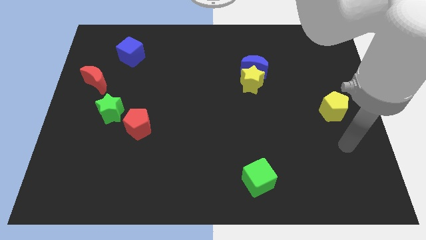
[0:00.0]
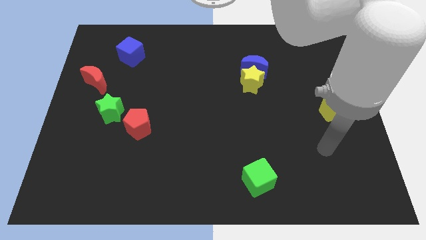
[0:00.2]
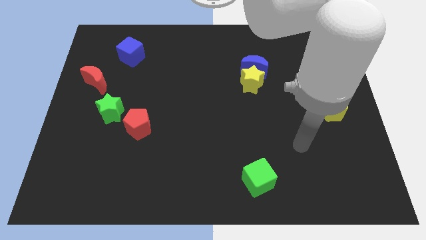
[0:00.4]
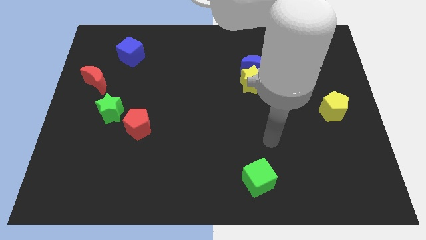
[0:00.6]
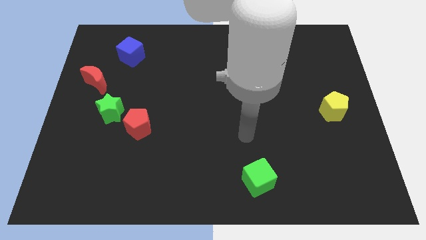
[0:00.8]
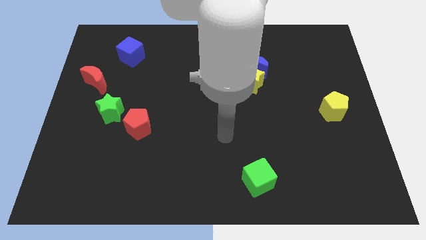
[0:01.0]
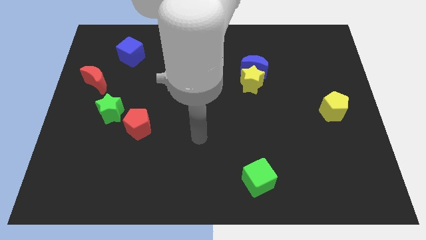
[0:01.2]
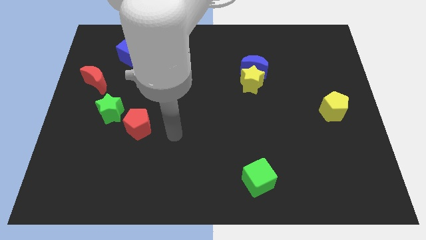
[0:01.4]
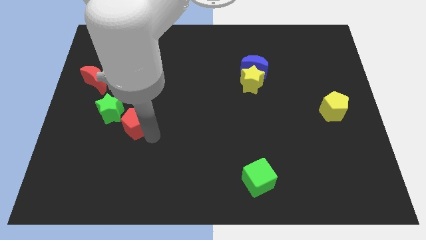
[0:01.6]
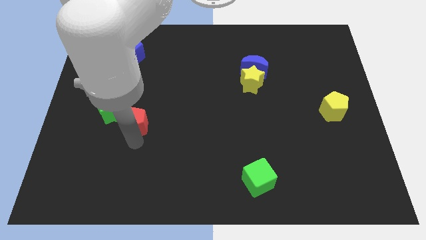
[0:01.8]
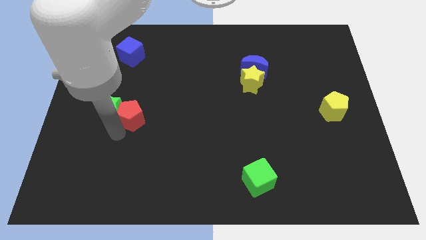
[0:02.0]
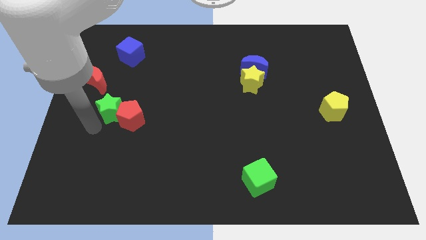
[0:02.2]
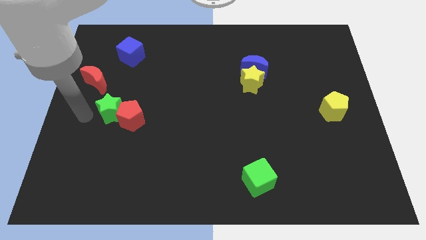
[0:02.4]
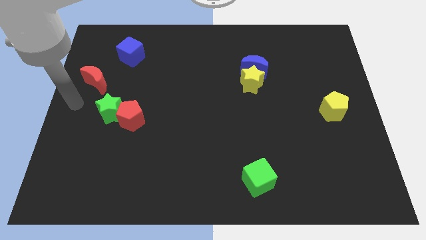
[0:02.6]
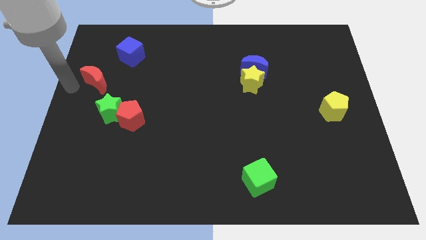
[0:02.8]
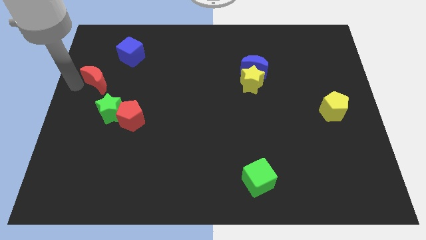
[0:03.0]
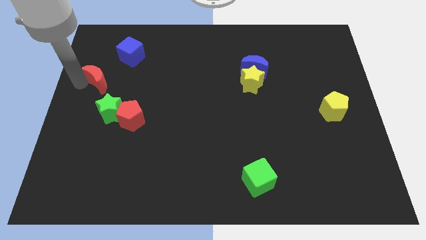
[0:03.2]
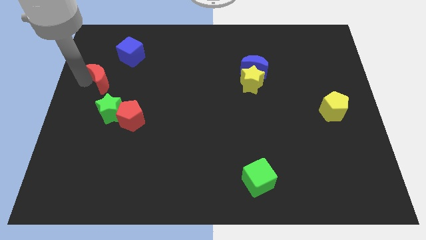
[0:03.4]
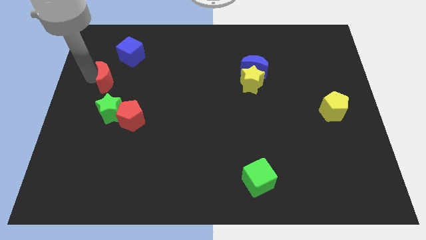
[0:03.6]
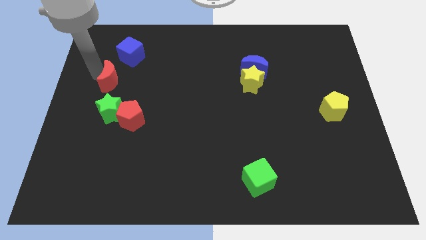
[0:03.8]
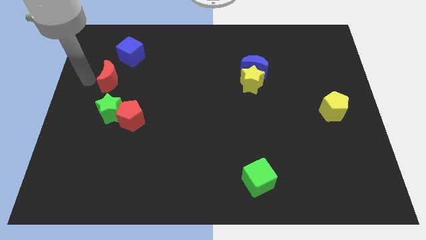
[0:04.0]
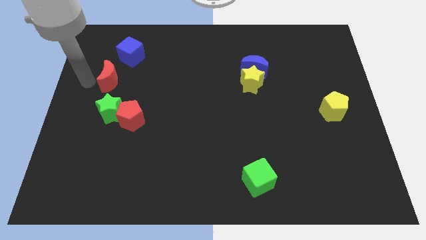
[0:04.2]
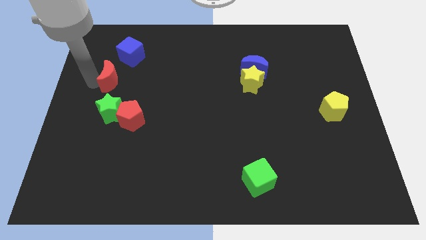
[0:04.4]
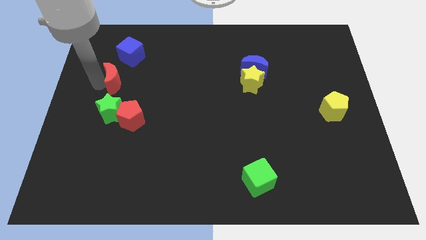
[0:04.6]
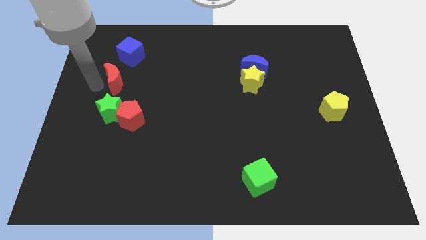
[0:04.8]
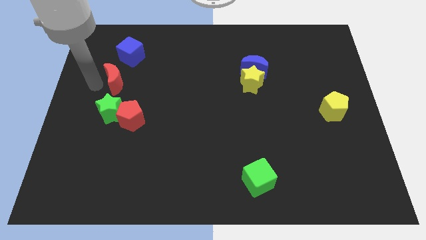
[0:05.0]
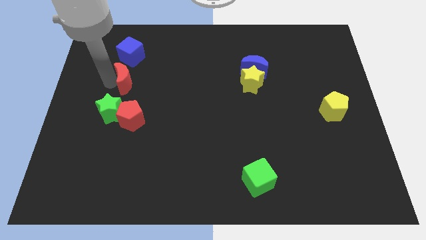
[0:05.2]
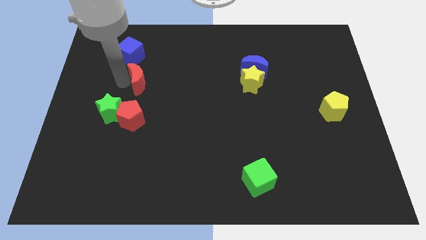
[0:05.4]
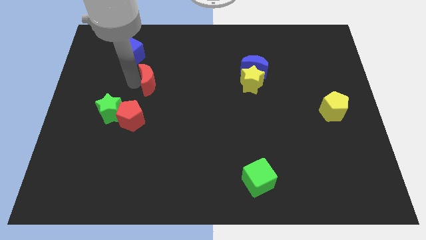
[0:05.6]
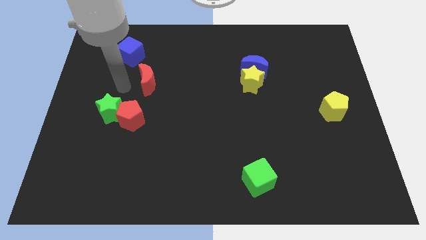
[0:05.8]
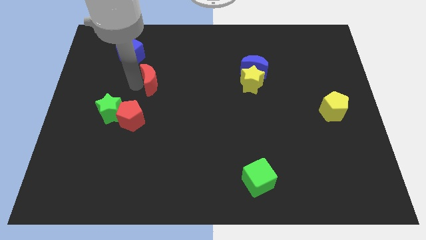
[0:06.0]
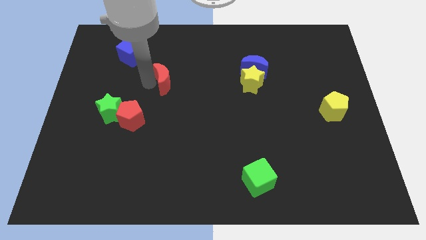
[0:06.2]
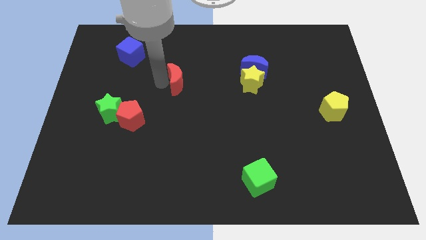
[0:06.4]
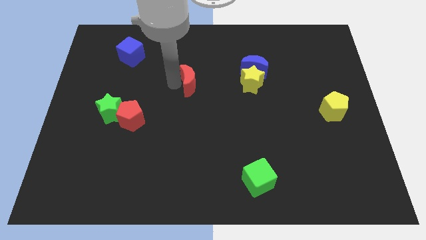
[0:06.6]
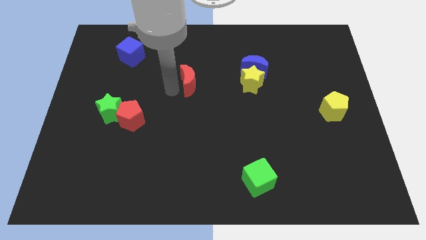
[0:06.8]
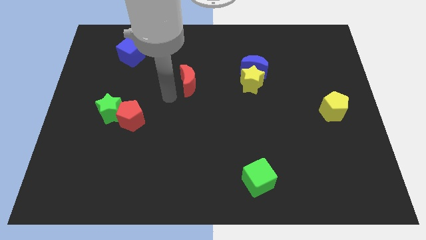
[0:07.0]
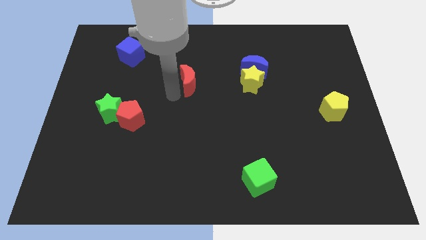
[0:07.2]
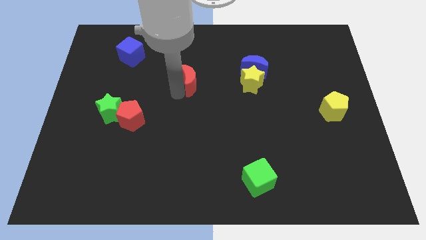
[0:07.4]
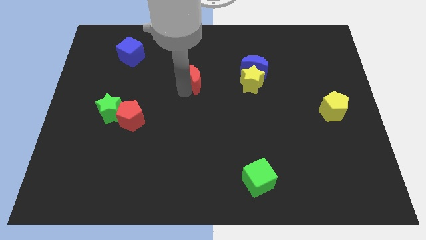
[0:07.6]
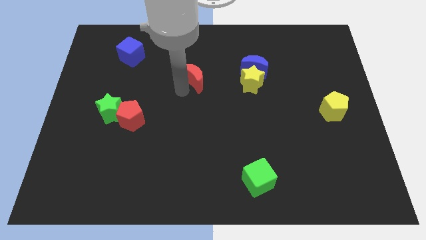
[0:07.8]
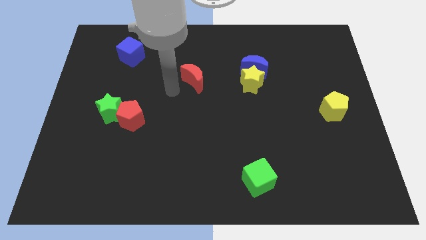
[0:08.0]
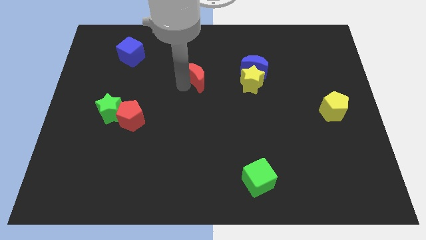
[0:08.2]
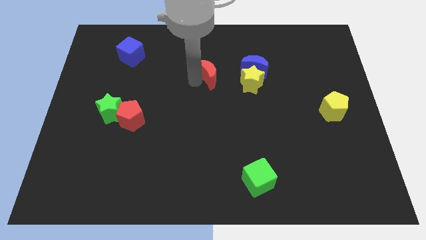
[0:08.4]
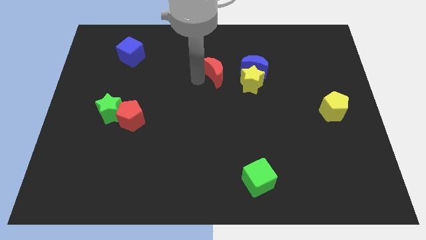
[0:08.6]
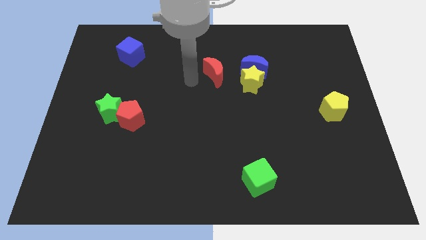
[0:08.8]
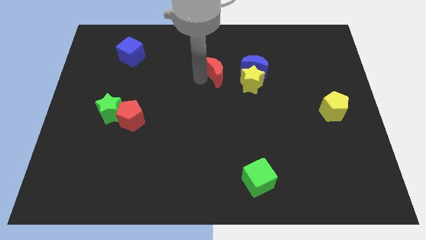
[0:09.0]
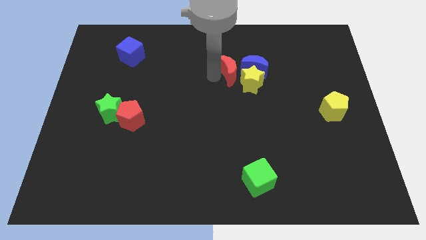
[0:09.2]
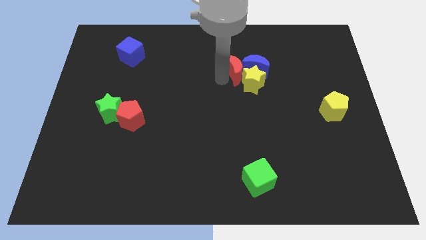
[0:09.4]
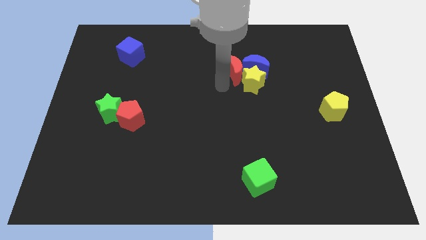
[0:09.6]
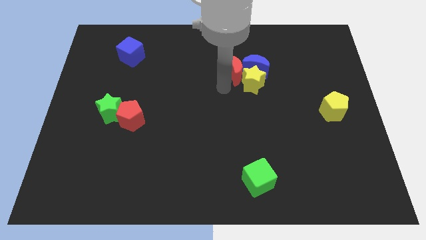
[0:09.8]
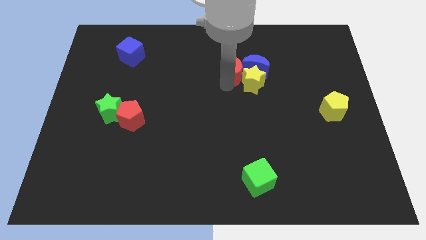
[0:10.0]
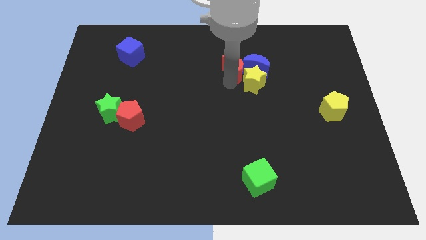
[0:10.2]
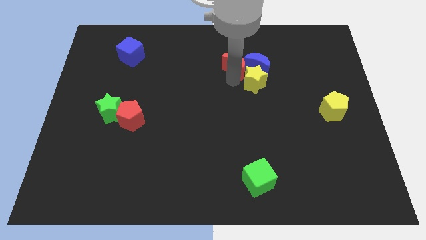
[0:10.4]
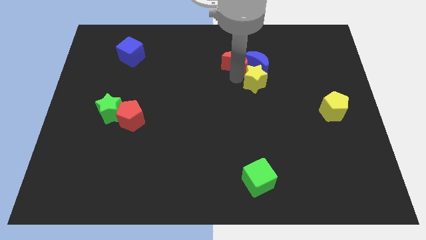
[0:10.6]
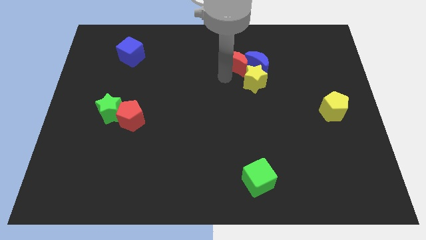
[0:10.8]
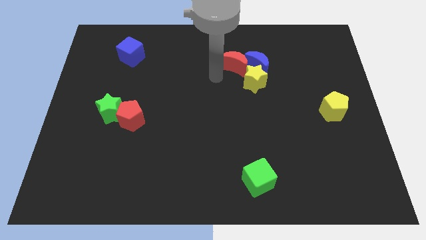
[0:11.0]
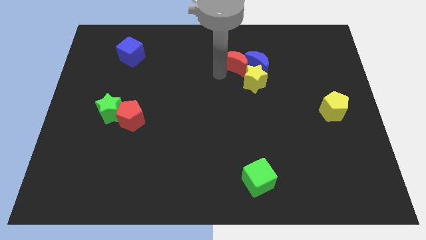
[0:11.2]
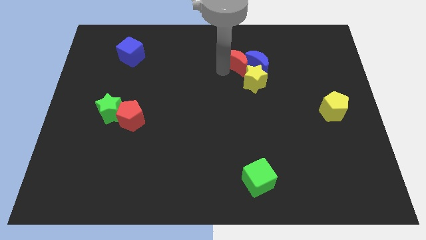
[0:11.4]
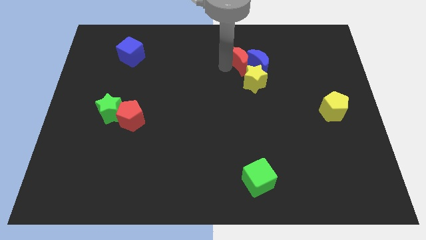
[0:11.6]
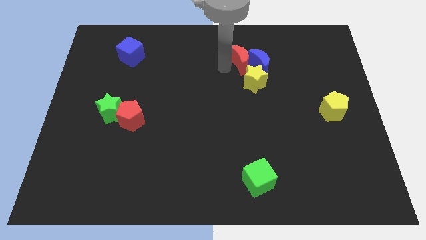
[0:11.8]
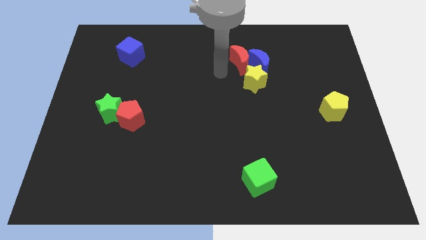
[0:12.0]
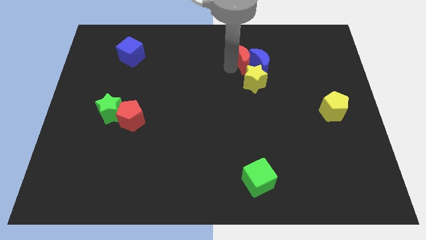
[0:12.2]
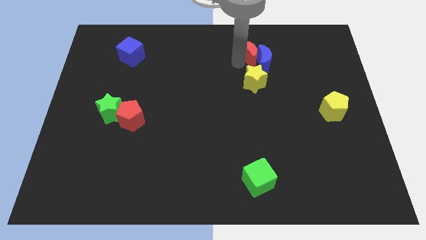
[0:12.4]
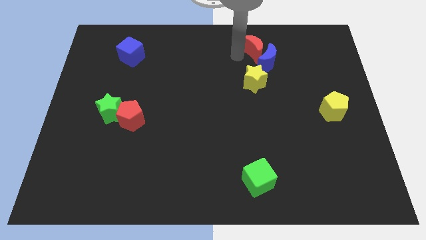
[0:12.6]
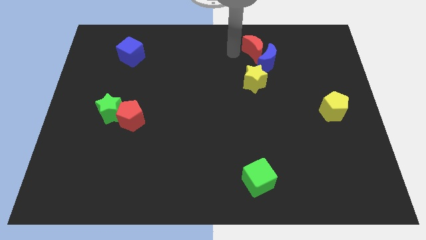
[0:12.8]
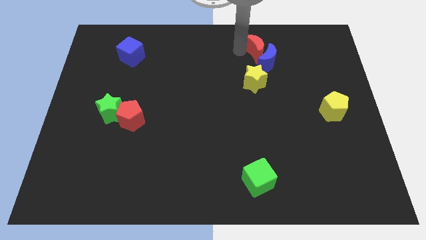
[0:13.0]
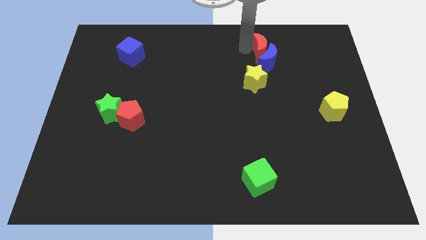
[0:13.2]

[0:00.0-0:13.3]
push the red moon diagonally up and to the right of the blue moon

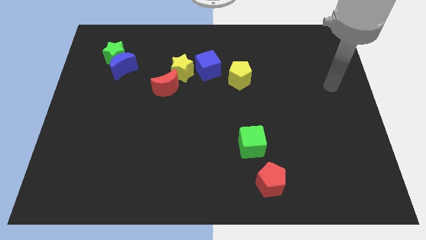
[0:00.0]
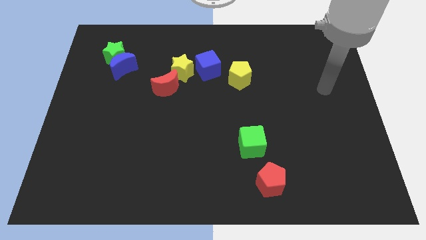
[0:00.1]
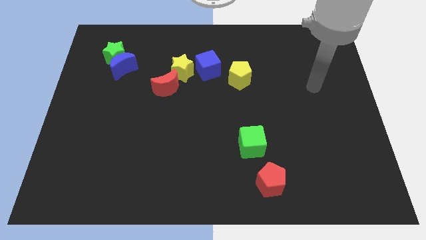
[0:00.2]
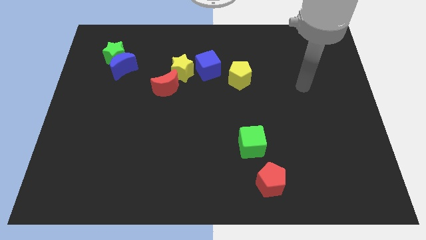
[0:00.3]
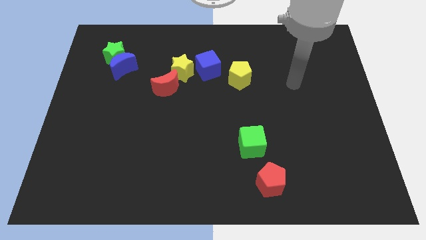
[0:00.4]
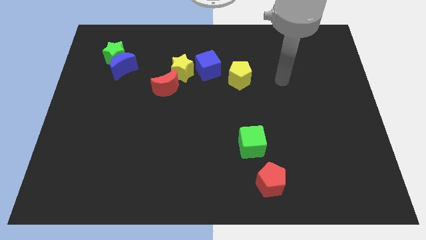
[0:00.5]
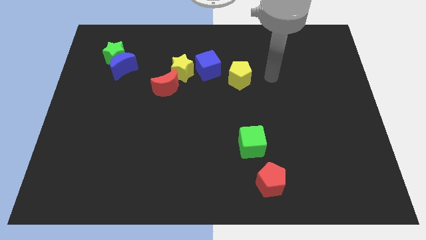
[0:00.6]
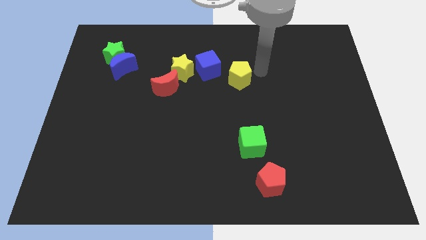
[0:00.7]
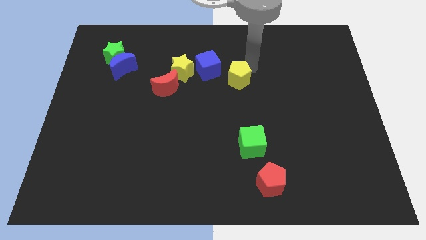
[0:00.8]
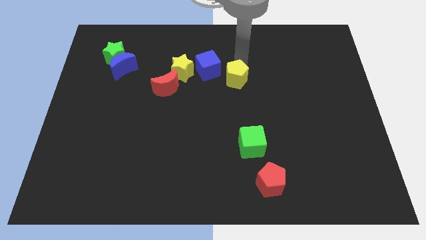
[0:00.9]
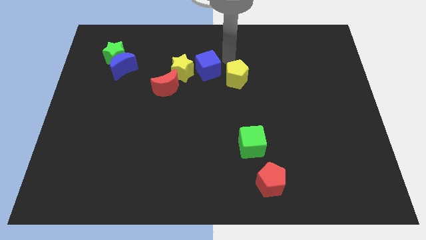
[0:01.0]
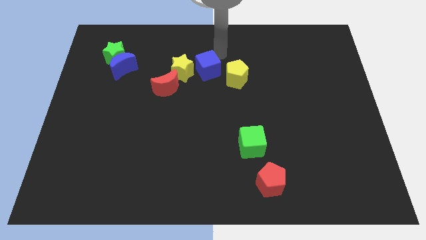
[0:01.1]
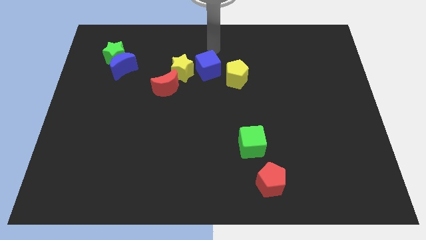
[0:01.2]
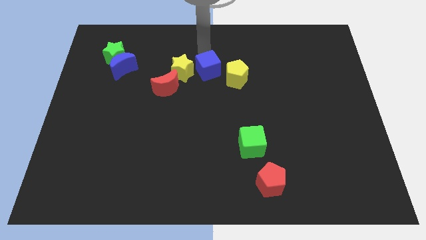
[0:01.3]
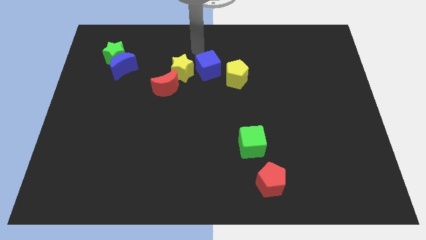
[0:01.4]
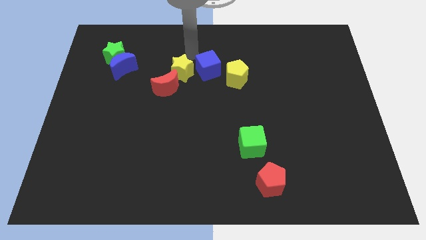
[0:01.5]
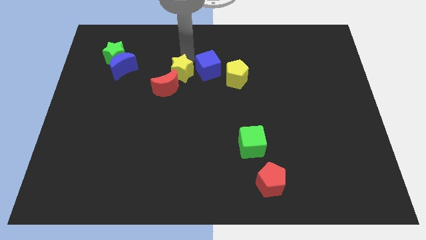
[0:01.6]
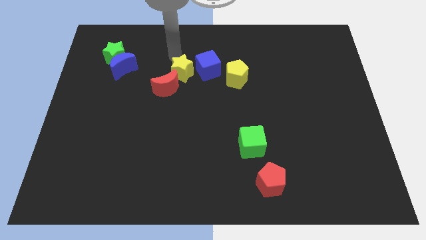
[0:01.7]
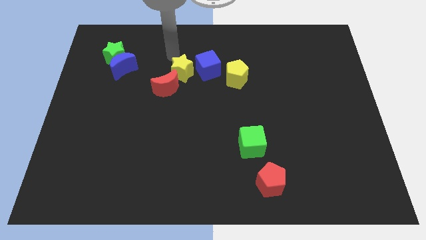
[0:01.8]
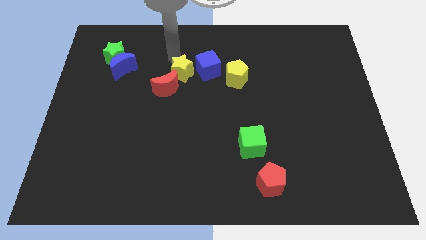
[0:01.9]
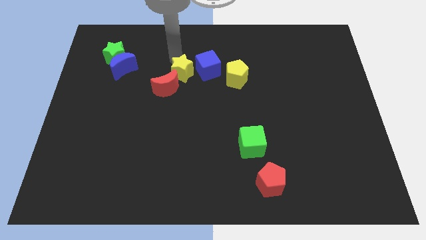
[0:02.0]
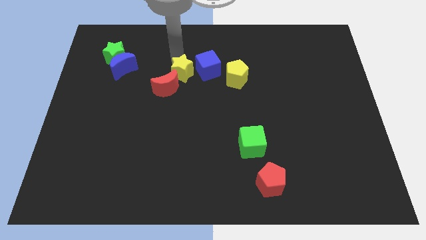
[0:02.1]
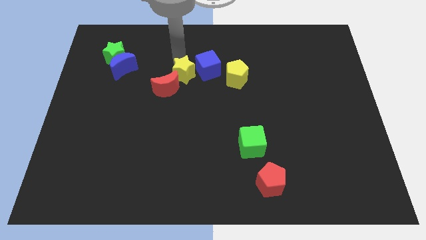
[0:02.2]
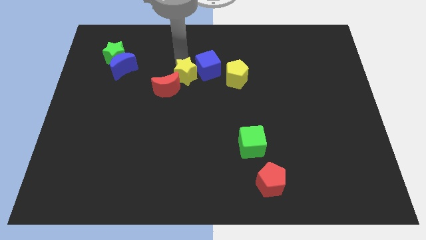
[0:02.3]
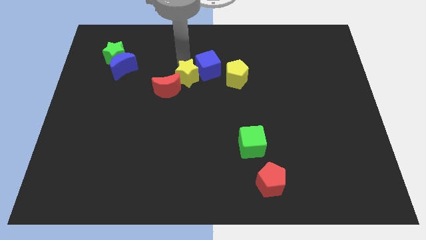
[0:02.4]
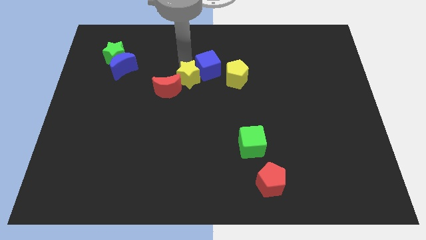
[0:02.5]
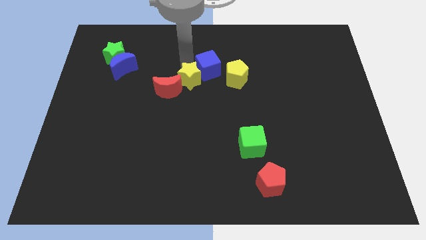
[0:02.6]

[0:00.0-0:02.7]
put the yellow star below the blue cube
